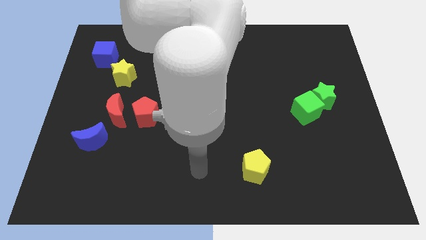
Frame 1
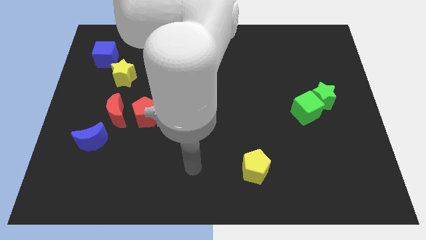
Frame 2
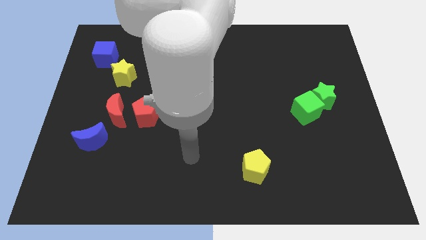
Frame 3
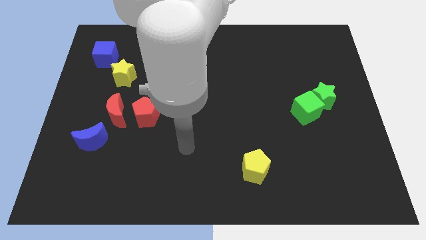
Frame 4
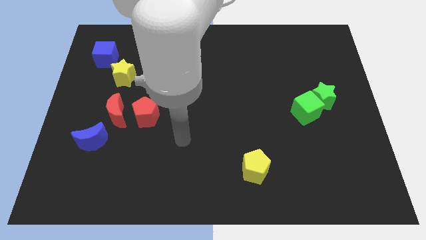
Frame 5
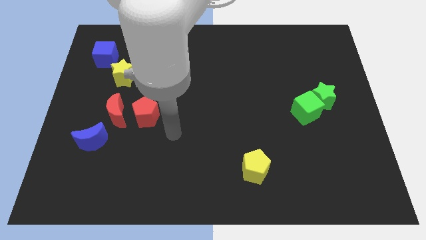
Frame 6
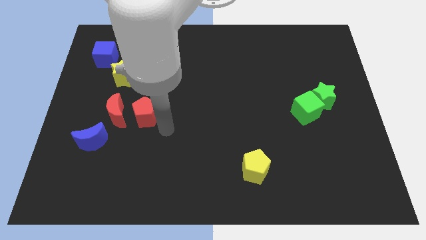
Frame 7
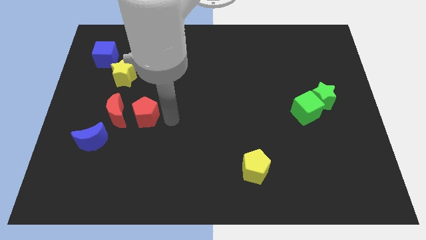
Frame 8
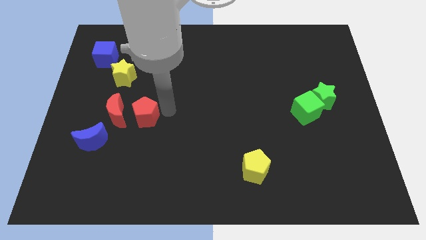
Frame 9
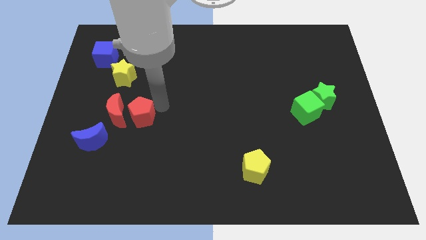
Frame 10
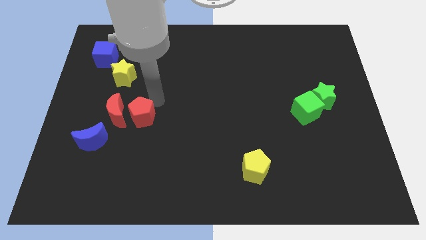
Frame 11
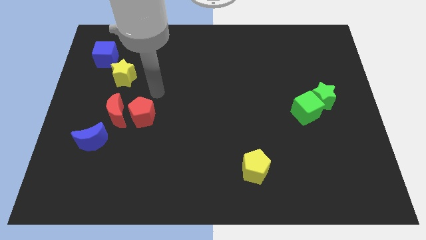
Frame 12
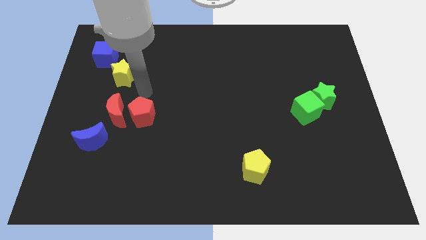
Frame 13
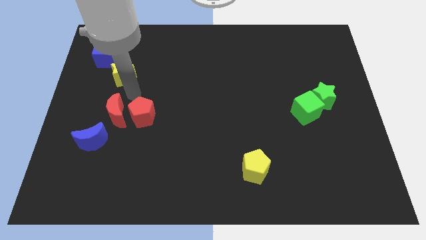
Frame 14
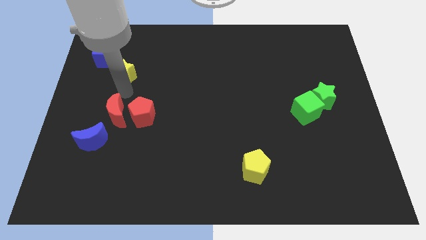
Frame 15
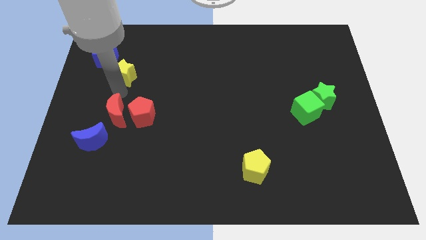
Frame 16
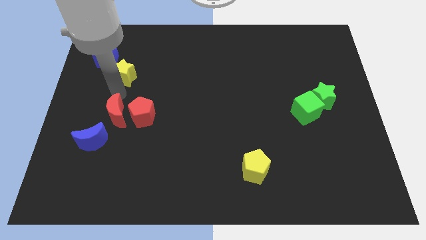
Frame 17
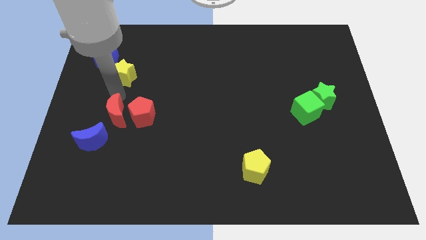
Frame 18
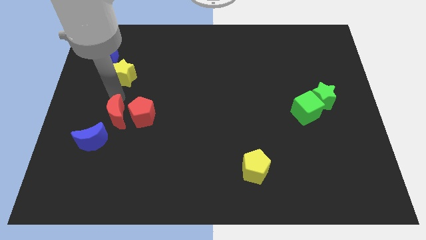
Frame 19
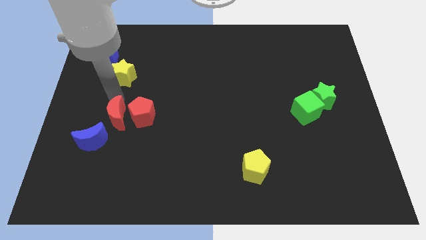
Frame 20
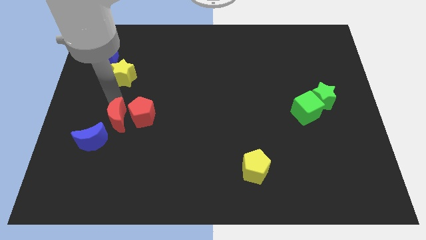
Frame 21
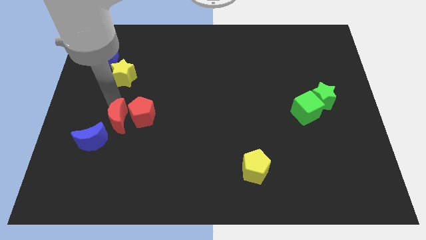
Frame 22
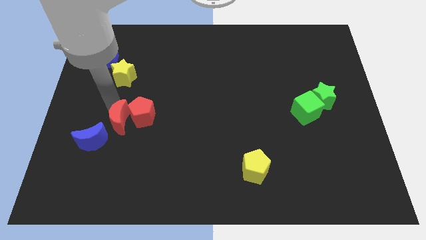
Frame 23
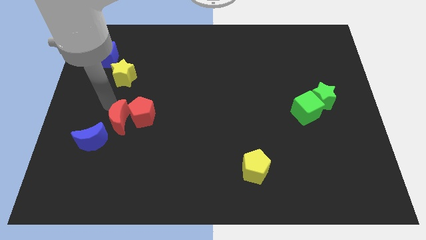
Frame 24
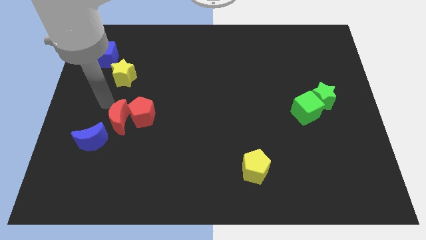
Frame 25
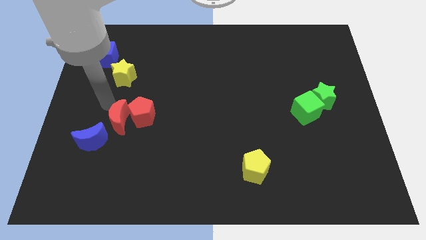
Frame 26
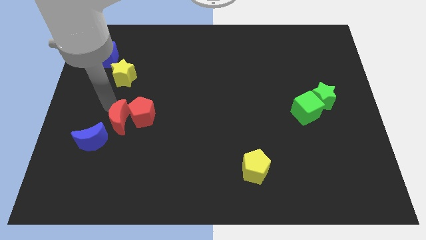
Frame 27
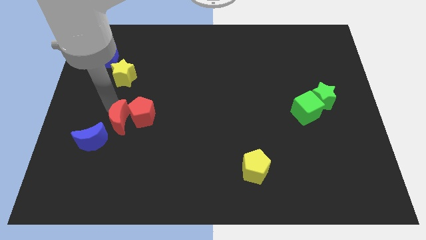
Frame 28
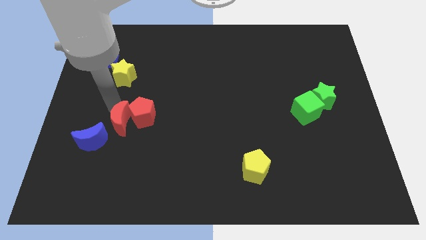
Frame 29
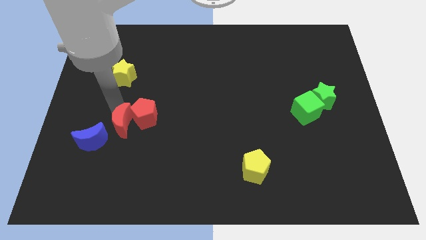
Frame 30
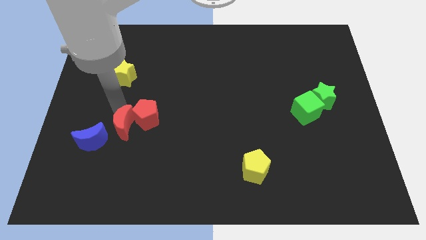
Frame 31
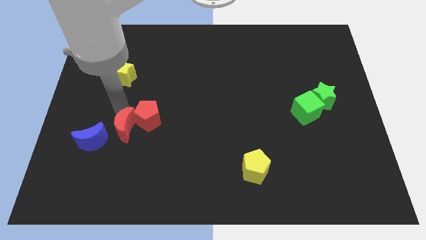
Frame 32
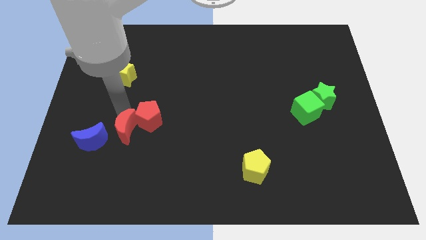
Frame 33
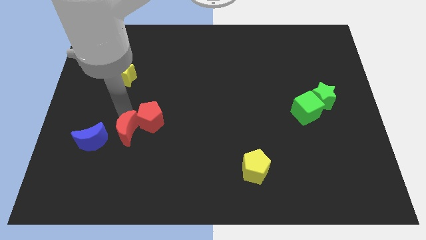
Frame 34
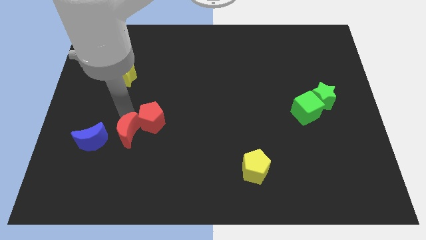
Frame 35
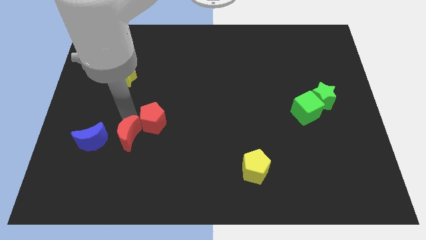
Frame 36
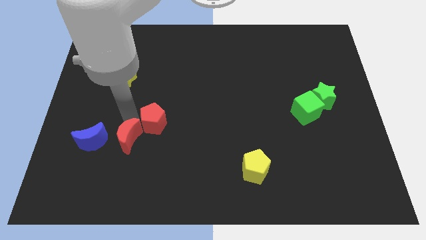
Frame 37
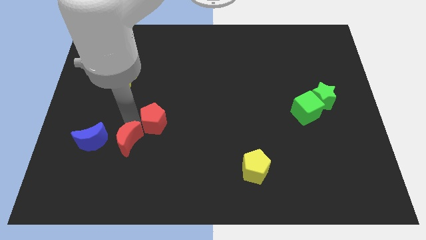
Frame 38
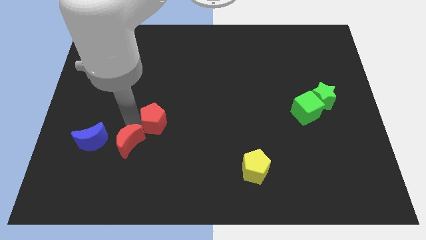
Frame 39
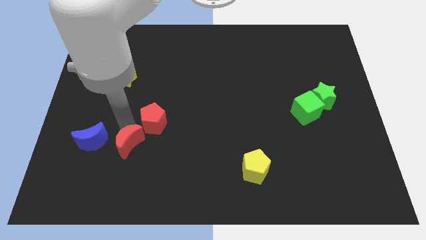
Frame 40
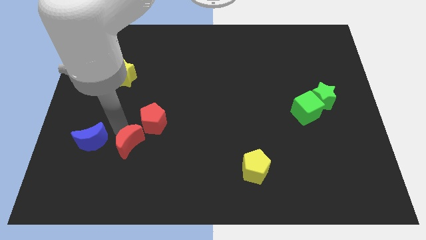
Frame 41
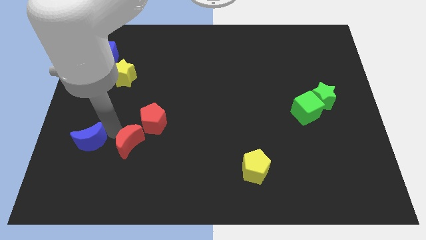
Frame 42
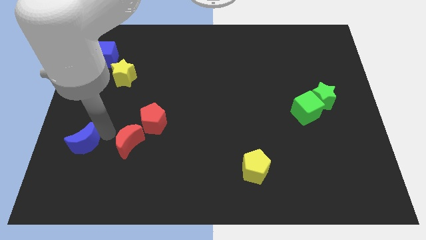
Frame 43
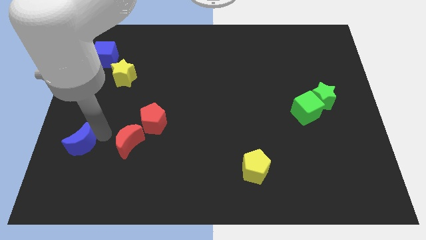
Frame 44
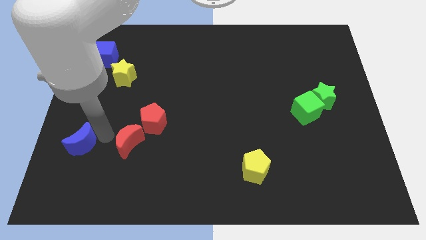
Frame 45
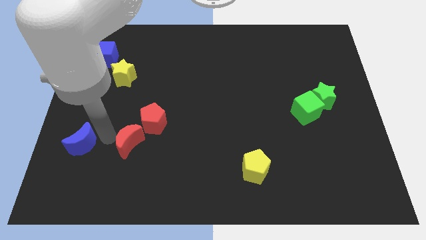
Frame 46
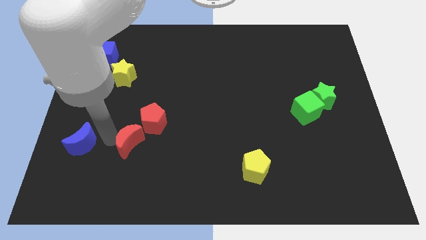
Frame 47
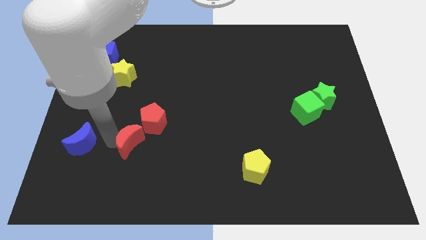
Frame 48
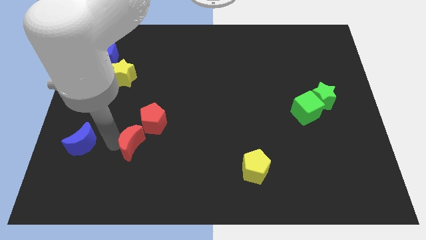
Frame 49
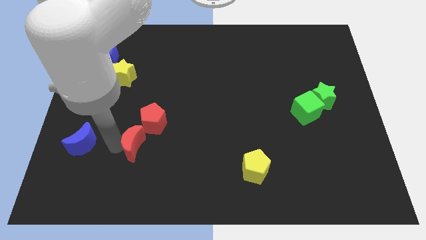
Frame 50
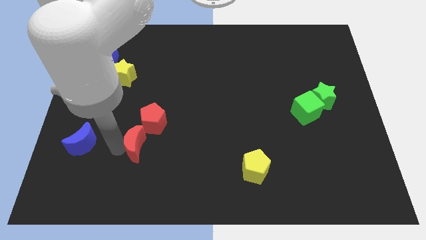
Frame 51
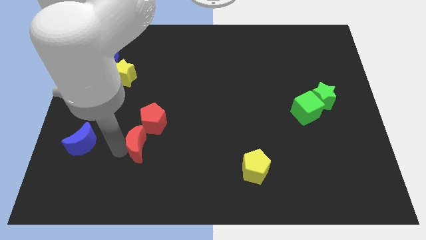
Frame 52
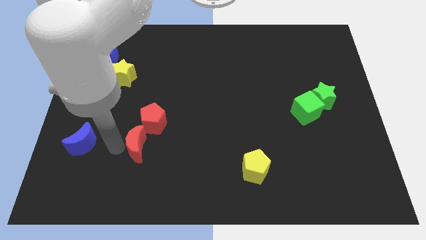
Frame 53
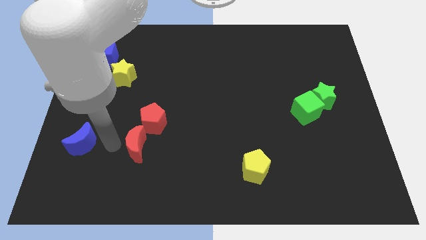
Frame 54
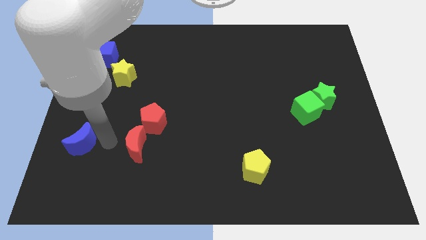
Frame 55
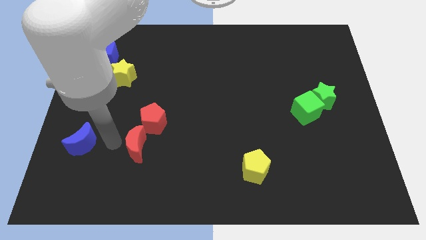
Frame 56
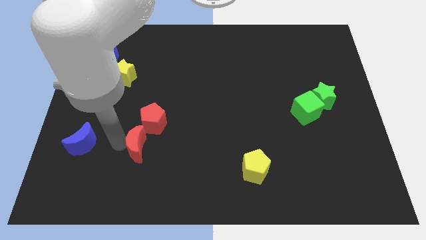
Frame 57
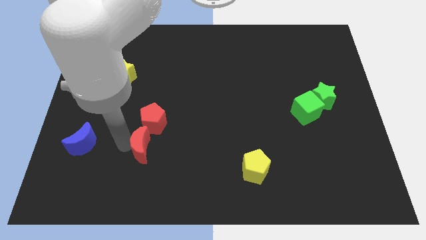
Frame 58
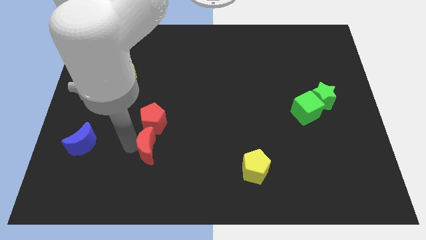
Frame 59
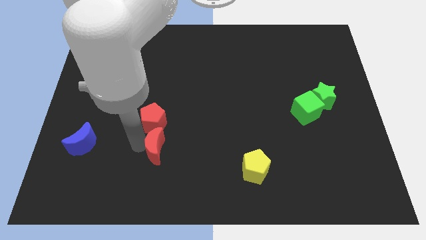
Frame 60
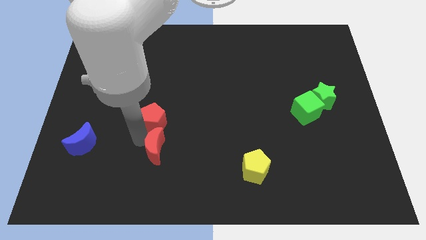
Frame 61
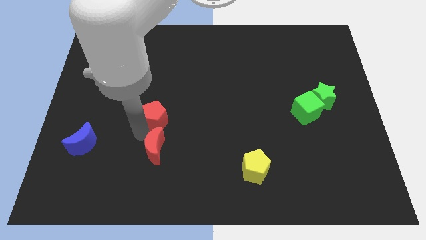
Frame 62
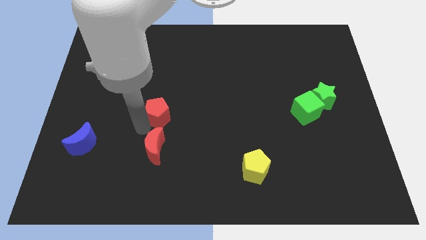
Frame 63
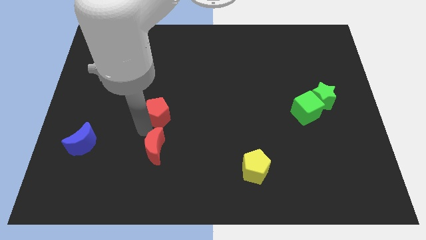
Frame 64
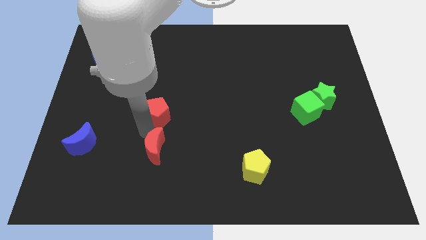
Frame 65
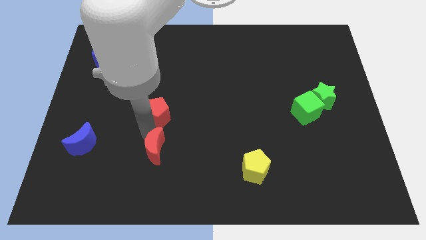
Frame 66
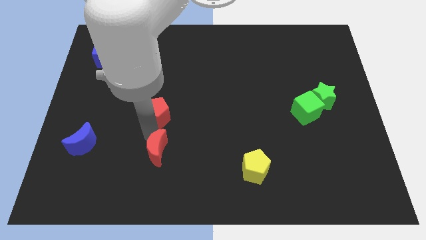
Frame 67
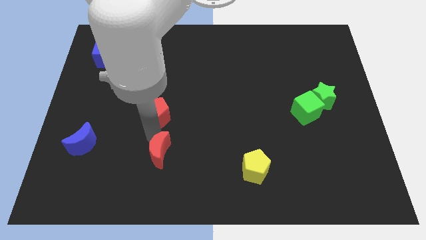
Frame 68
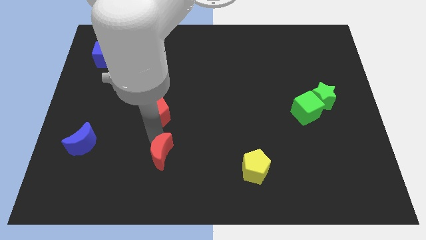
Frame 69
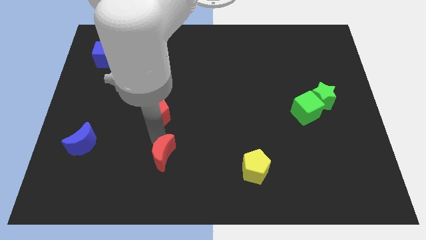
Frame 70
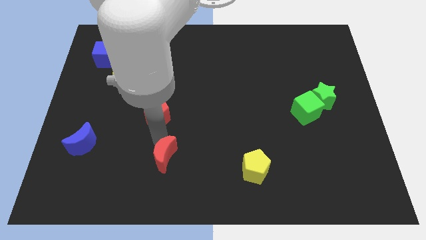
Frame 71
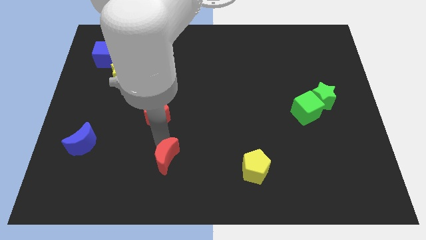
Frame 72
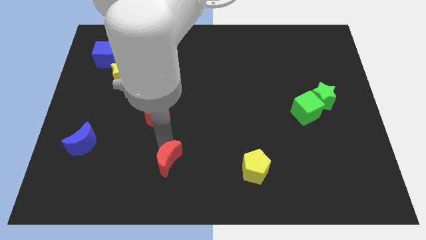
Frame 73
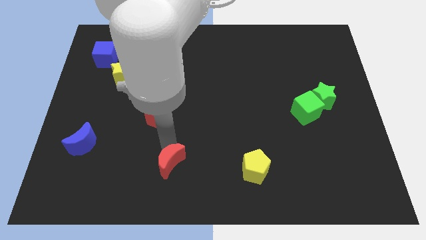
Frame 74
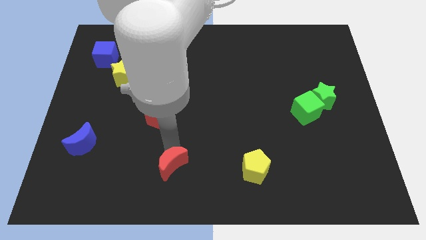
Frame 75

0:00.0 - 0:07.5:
slide the red moon to the bottom
